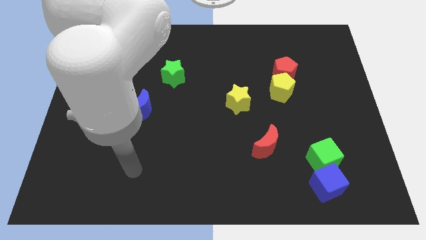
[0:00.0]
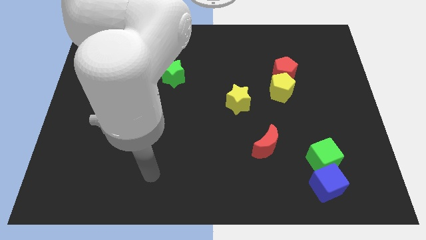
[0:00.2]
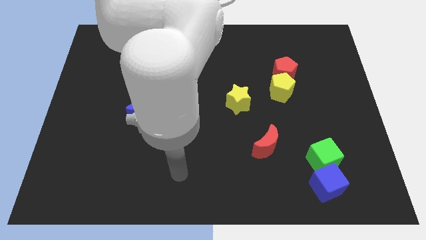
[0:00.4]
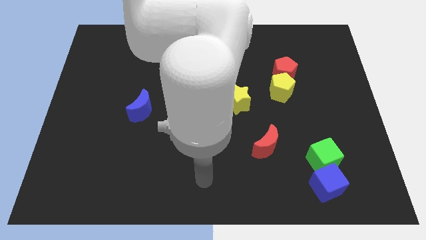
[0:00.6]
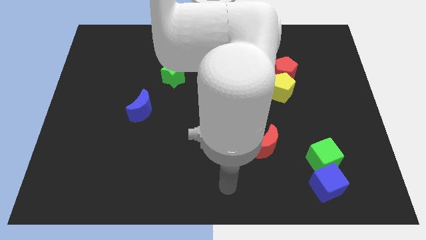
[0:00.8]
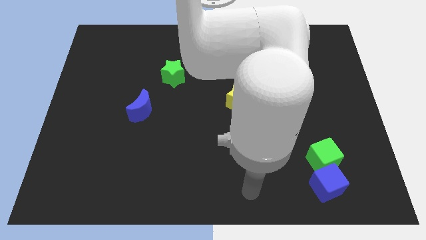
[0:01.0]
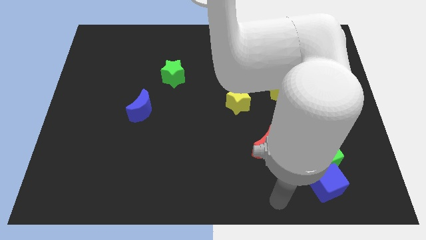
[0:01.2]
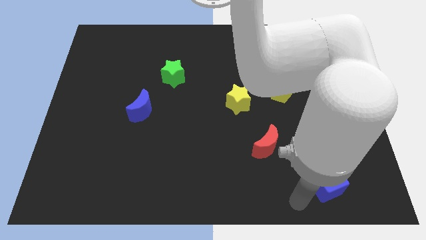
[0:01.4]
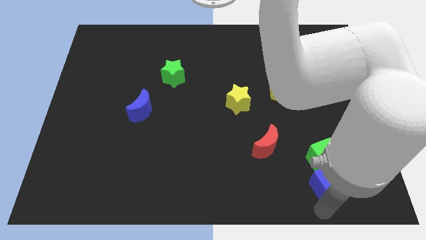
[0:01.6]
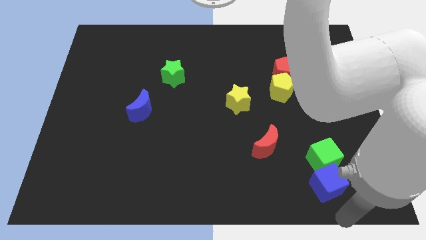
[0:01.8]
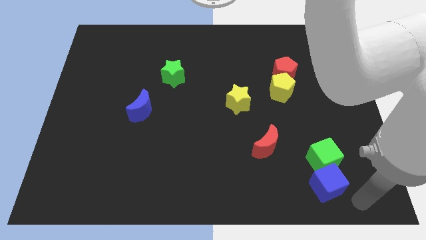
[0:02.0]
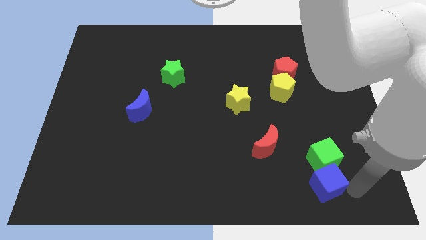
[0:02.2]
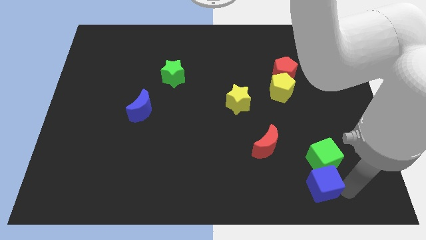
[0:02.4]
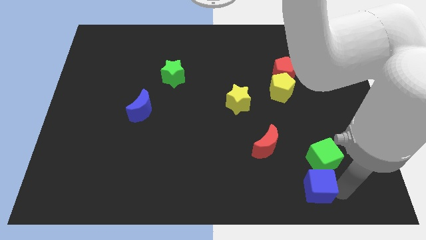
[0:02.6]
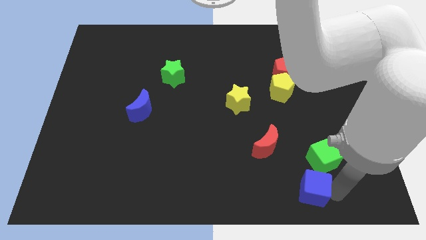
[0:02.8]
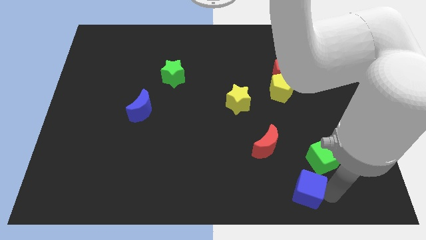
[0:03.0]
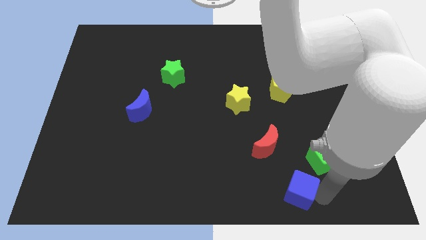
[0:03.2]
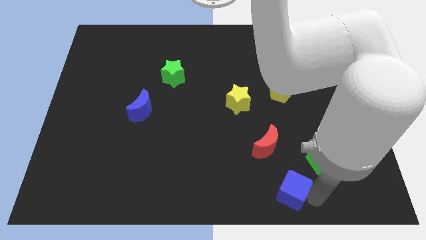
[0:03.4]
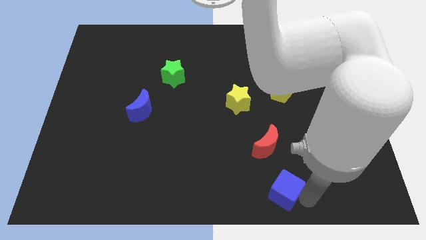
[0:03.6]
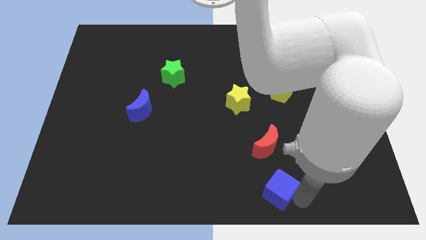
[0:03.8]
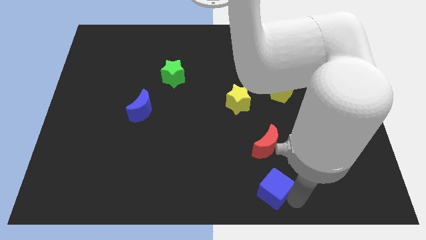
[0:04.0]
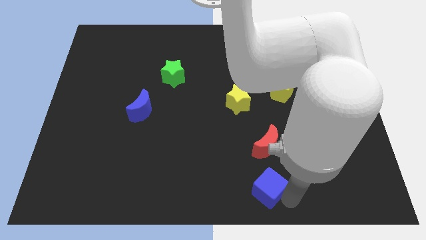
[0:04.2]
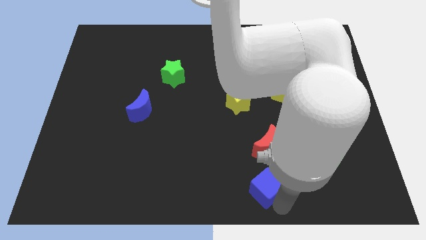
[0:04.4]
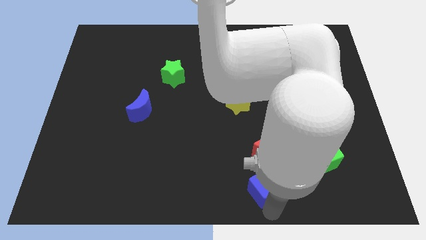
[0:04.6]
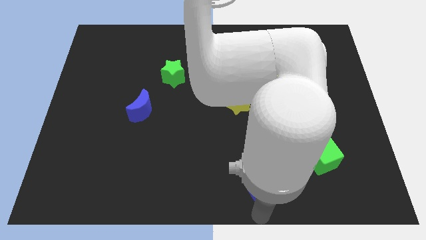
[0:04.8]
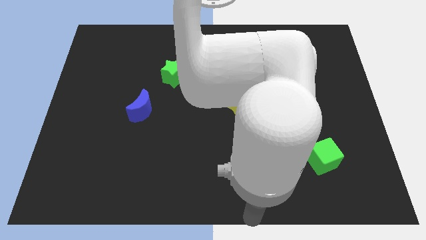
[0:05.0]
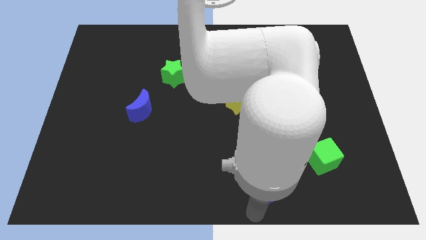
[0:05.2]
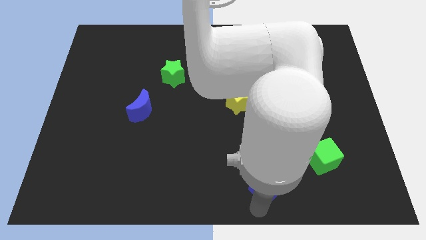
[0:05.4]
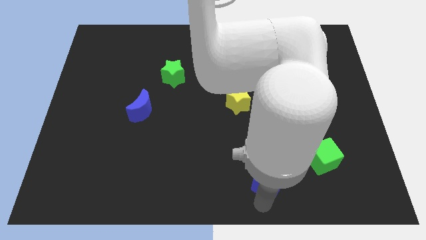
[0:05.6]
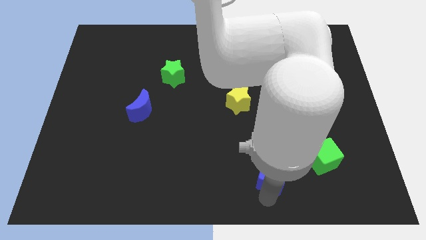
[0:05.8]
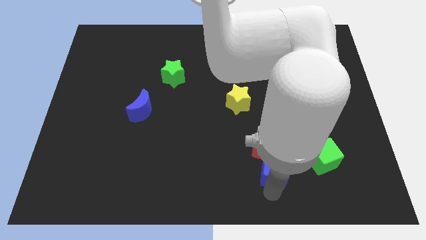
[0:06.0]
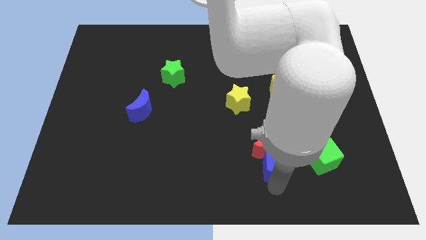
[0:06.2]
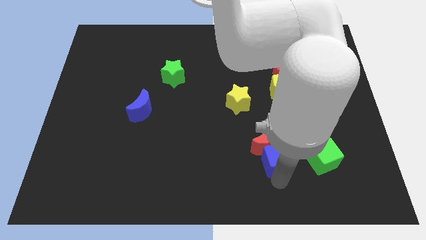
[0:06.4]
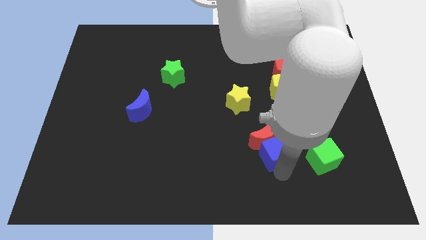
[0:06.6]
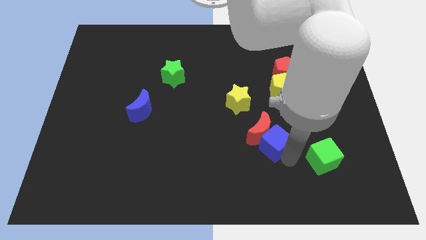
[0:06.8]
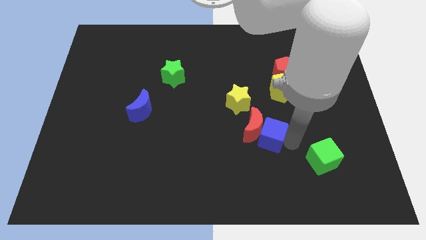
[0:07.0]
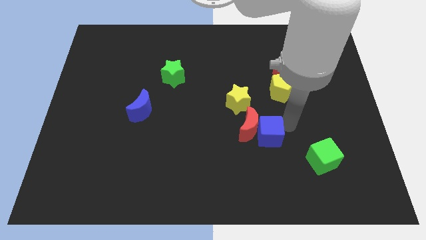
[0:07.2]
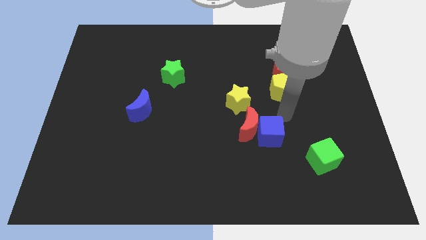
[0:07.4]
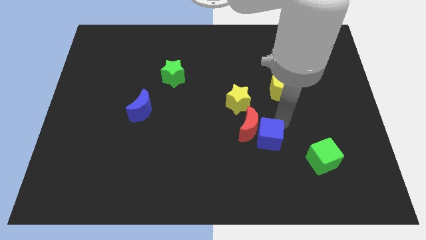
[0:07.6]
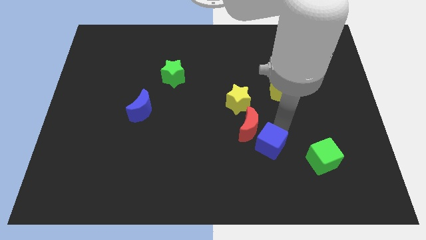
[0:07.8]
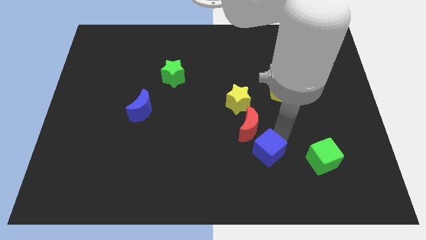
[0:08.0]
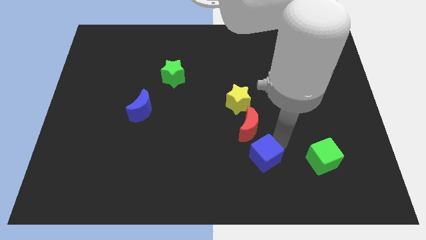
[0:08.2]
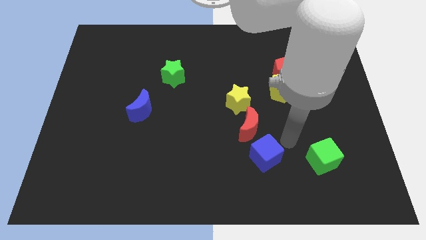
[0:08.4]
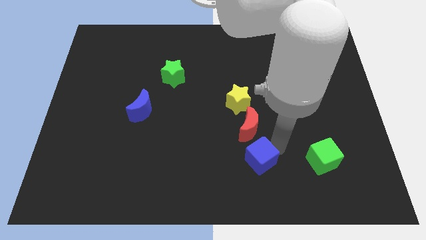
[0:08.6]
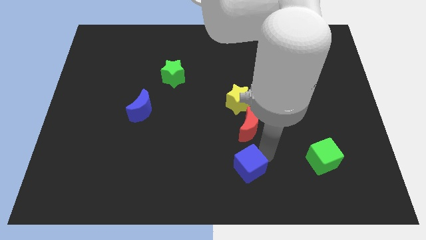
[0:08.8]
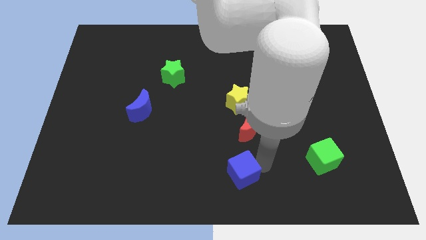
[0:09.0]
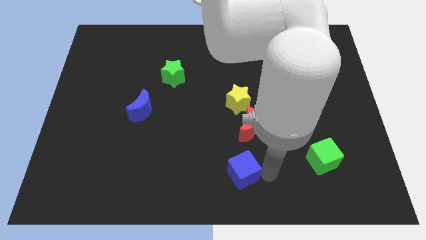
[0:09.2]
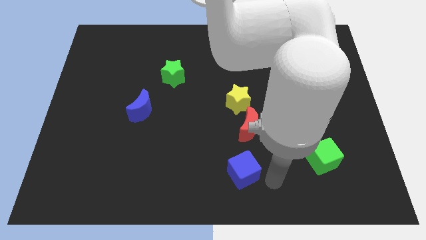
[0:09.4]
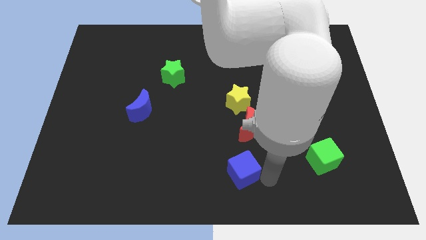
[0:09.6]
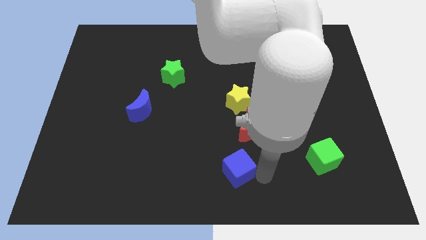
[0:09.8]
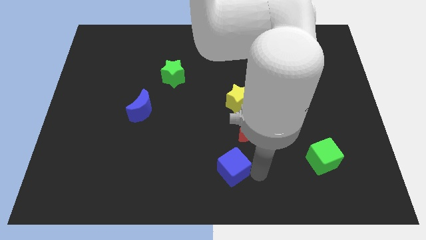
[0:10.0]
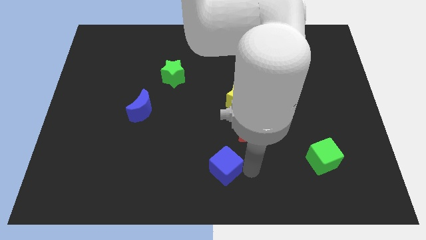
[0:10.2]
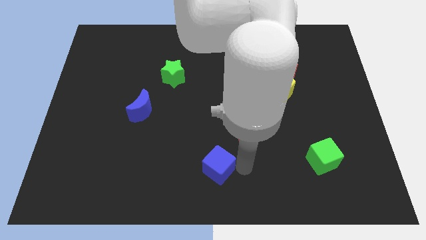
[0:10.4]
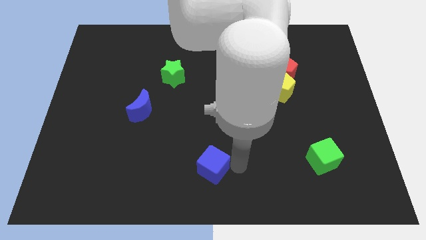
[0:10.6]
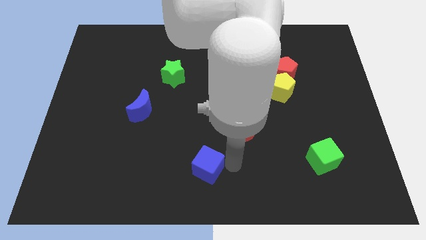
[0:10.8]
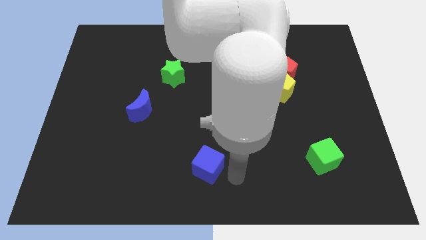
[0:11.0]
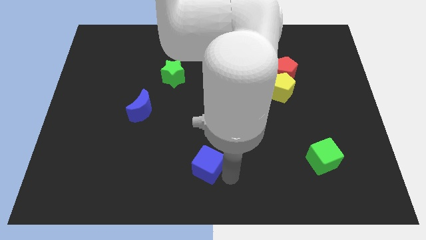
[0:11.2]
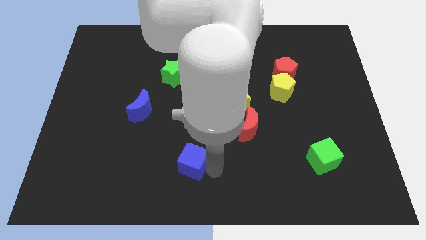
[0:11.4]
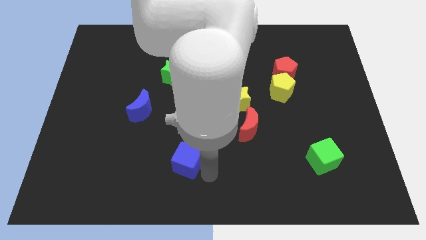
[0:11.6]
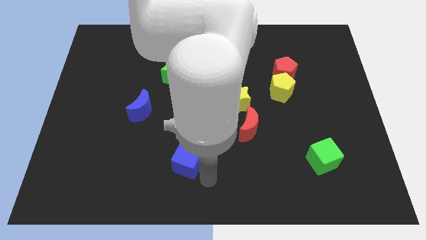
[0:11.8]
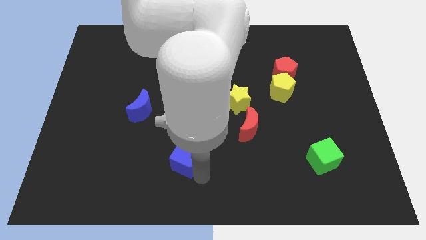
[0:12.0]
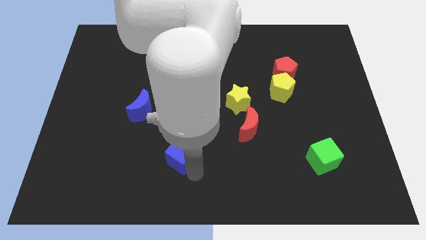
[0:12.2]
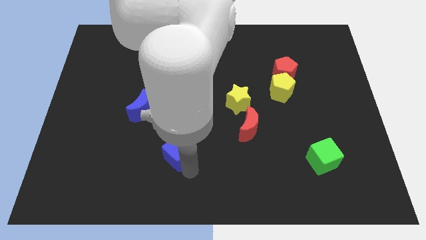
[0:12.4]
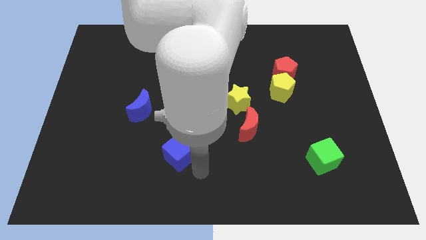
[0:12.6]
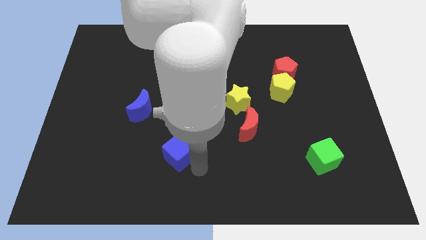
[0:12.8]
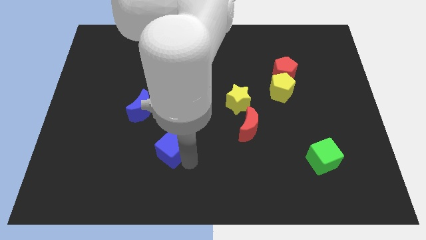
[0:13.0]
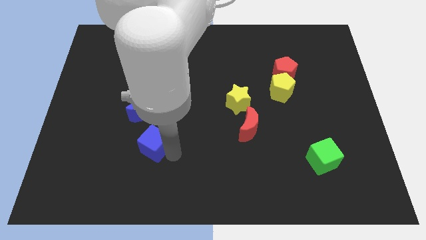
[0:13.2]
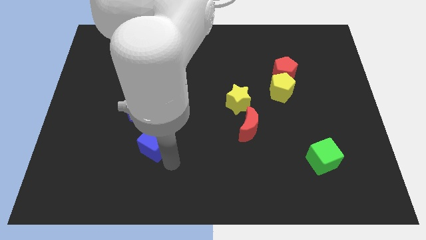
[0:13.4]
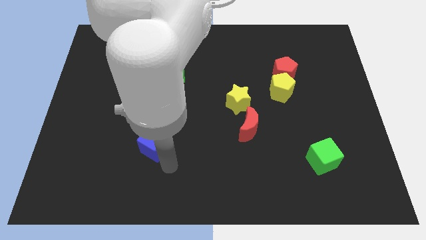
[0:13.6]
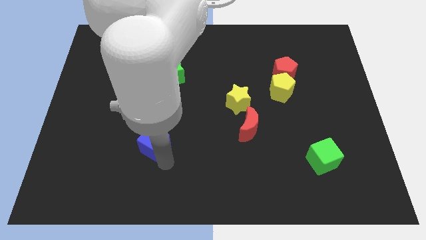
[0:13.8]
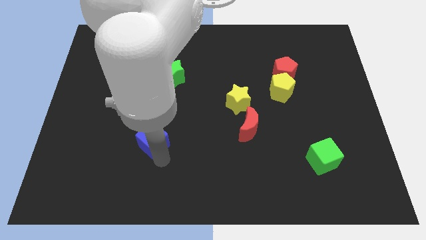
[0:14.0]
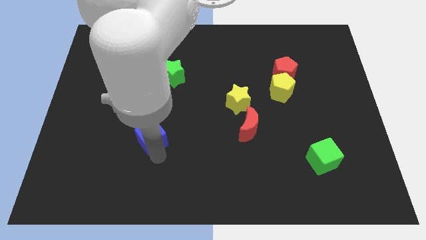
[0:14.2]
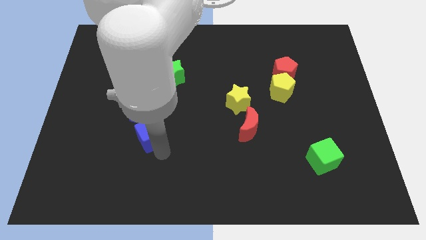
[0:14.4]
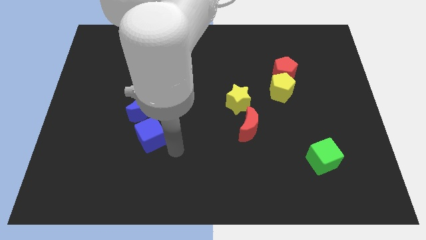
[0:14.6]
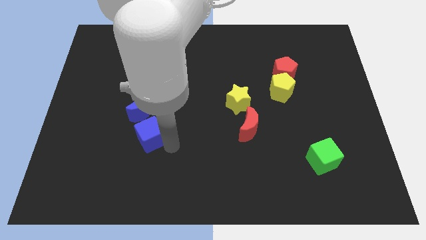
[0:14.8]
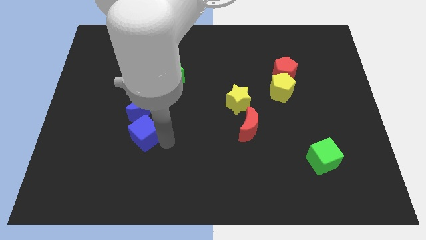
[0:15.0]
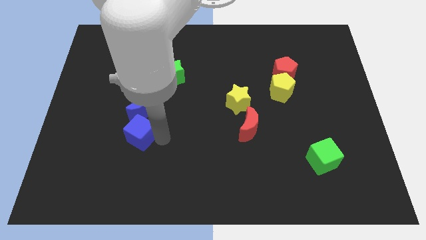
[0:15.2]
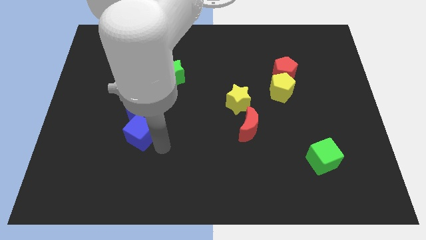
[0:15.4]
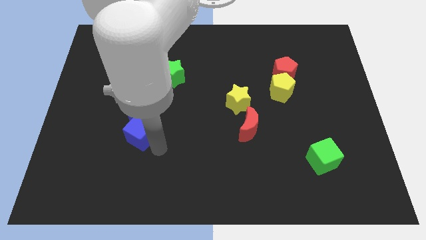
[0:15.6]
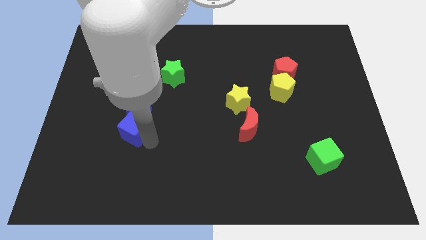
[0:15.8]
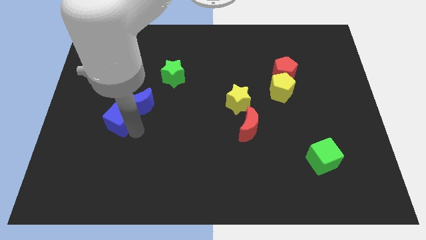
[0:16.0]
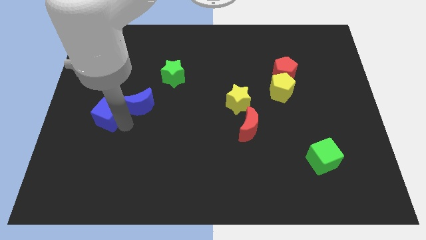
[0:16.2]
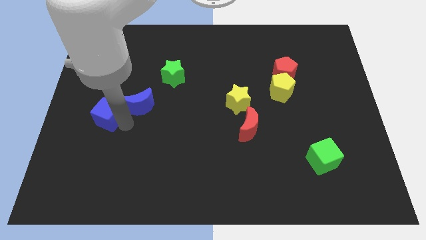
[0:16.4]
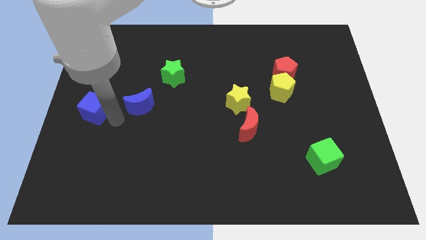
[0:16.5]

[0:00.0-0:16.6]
slide the blue cube to the left side
